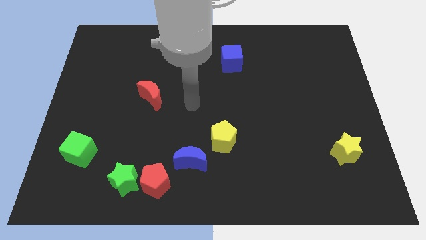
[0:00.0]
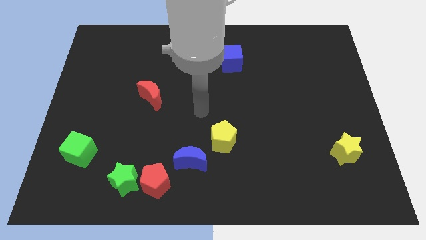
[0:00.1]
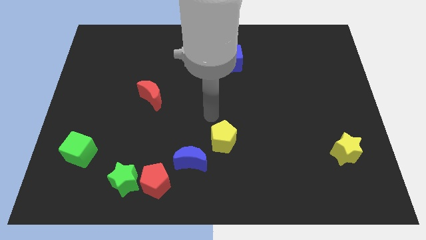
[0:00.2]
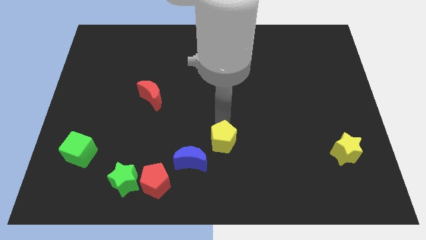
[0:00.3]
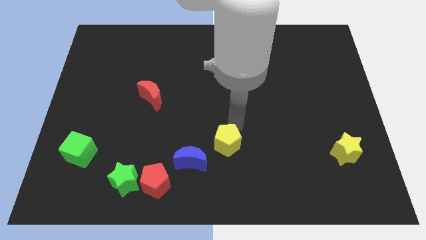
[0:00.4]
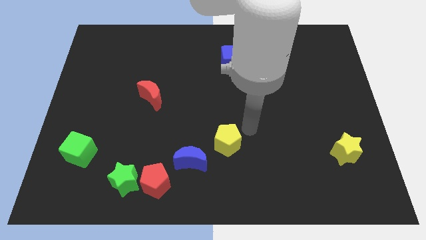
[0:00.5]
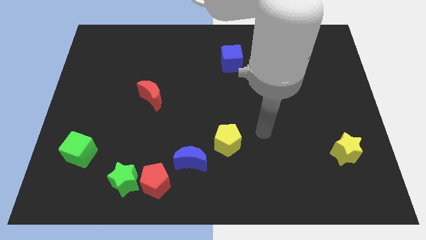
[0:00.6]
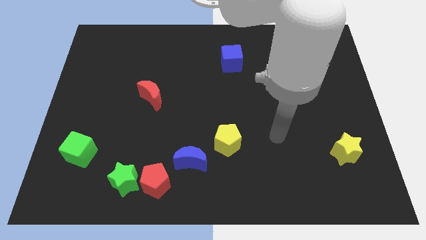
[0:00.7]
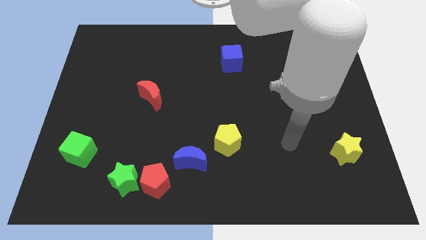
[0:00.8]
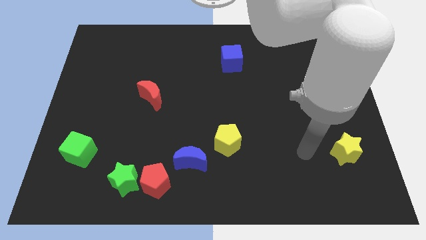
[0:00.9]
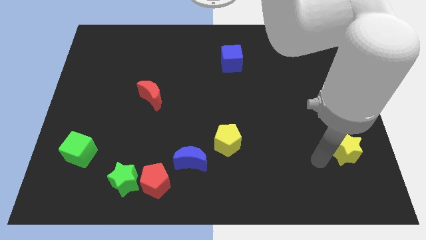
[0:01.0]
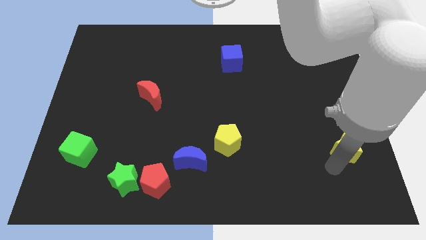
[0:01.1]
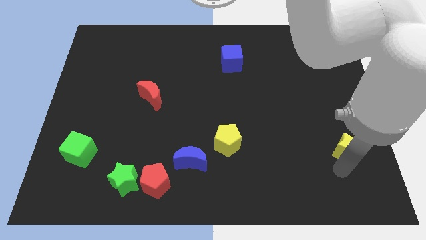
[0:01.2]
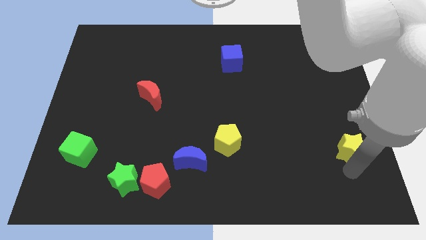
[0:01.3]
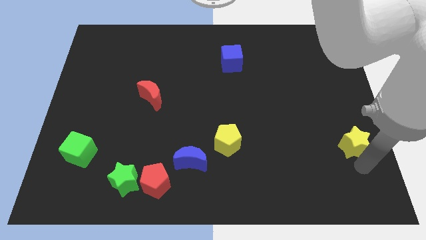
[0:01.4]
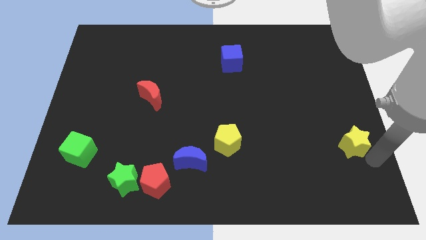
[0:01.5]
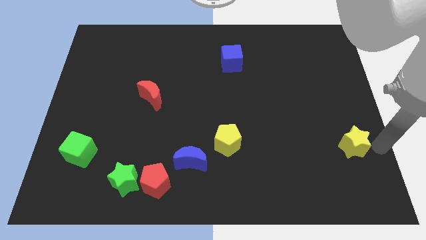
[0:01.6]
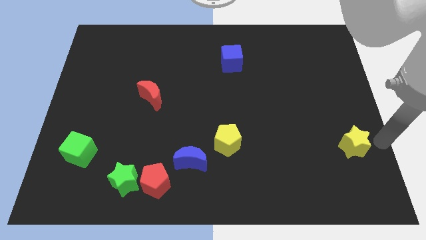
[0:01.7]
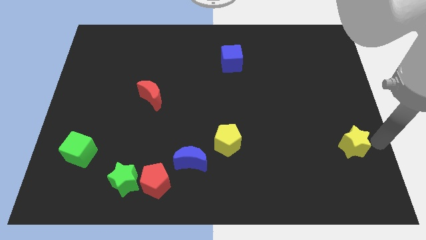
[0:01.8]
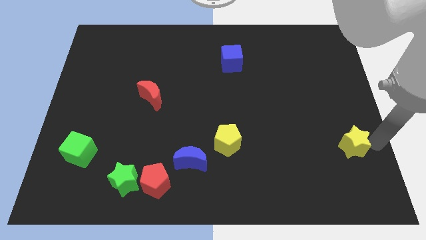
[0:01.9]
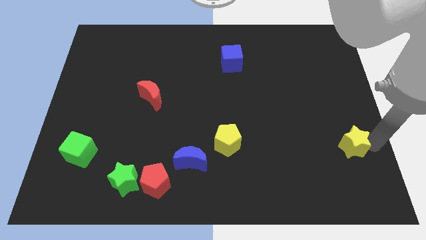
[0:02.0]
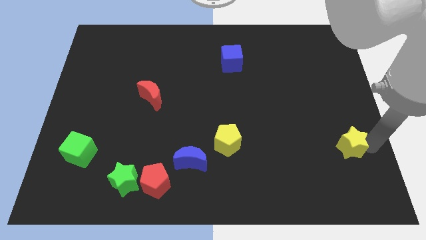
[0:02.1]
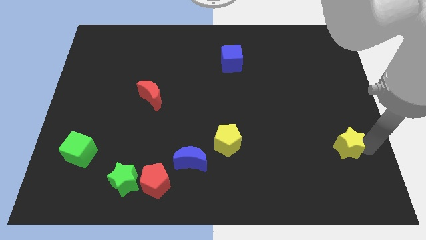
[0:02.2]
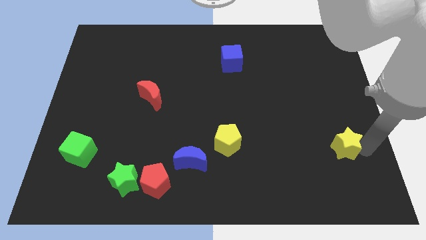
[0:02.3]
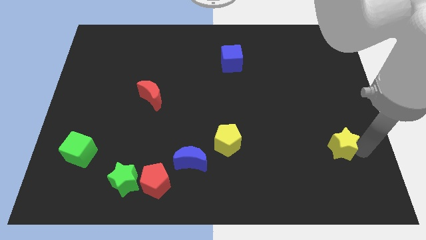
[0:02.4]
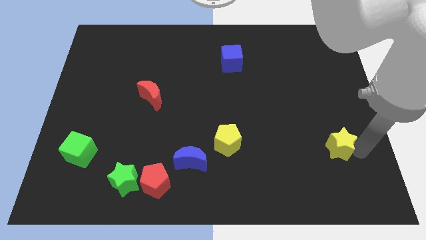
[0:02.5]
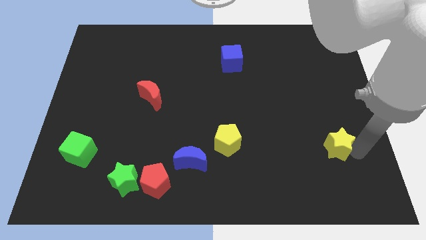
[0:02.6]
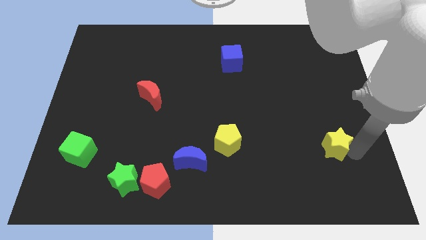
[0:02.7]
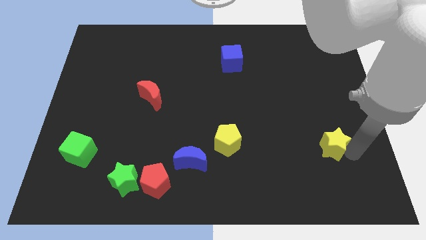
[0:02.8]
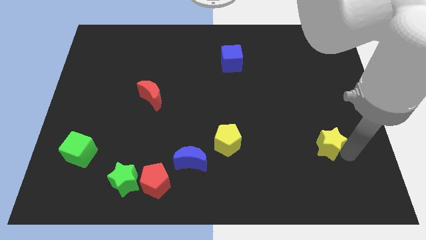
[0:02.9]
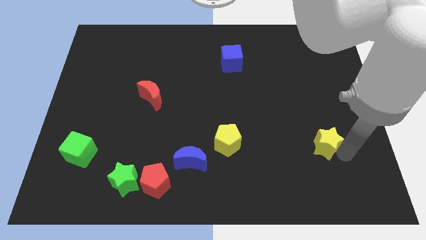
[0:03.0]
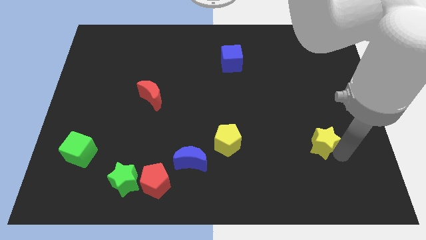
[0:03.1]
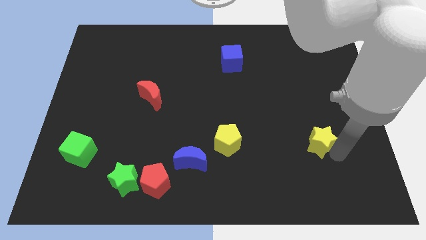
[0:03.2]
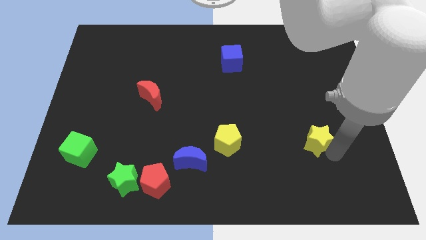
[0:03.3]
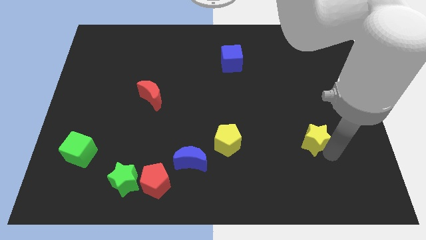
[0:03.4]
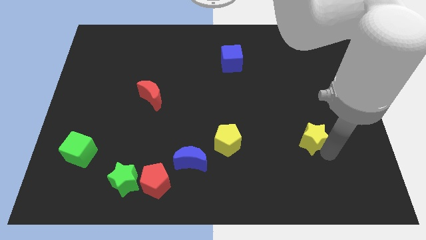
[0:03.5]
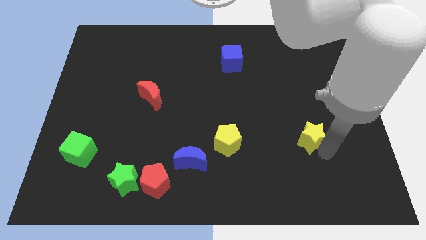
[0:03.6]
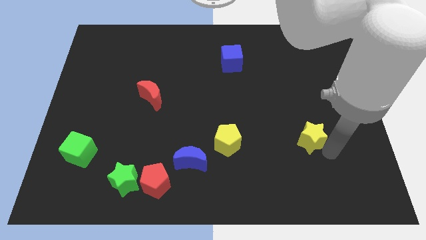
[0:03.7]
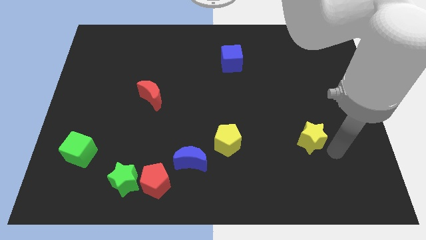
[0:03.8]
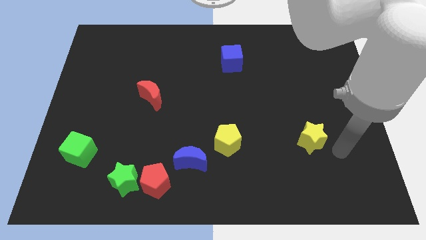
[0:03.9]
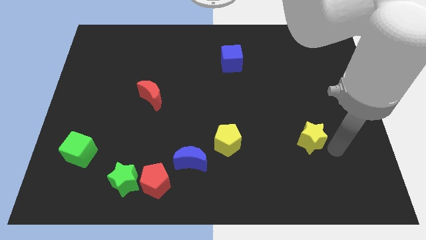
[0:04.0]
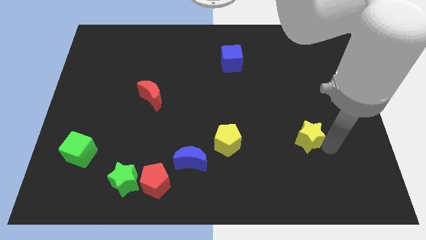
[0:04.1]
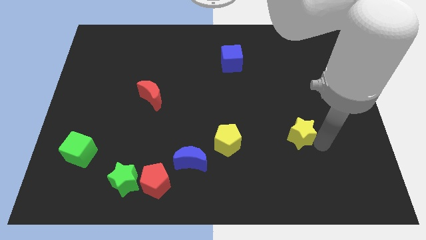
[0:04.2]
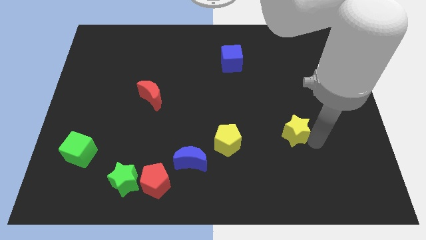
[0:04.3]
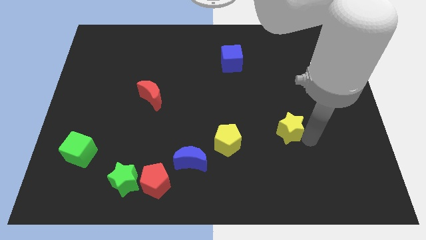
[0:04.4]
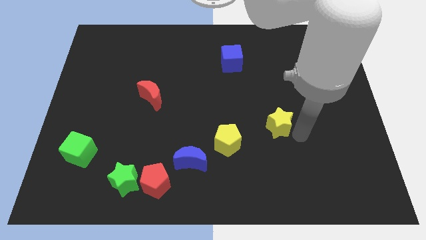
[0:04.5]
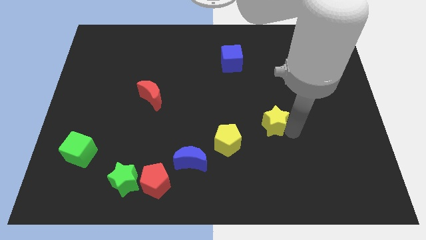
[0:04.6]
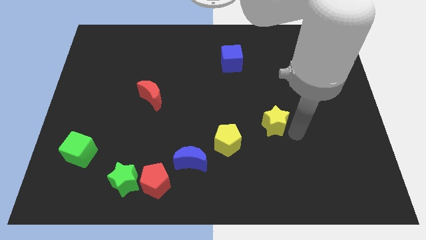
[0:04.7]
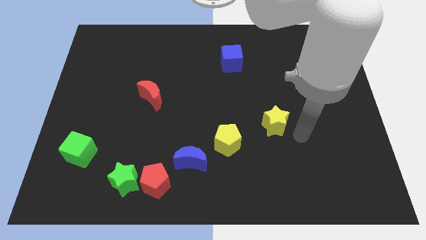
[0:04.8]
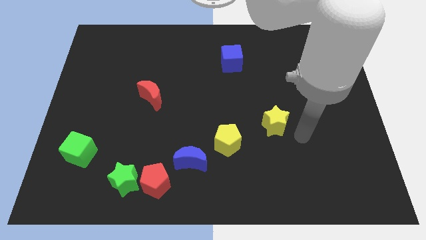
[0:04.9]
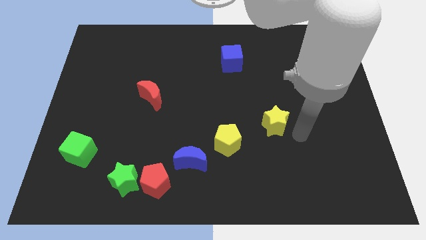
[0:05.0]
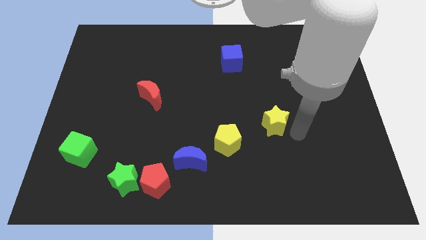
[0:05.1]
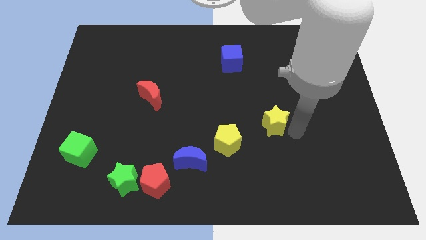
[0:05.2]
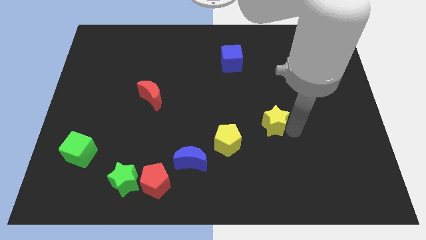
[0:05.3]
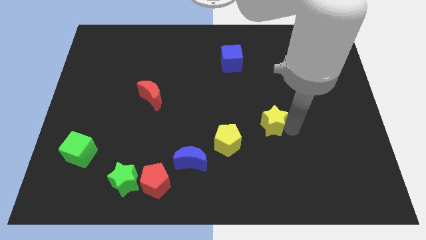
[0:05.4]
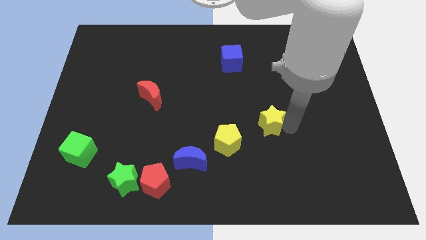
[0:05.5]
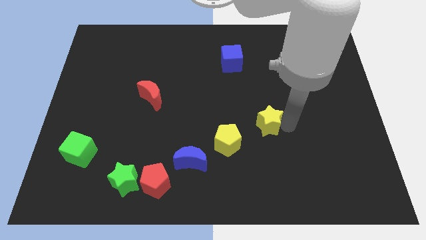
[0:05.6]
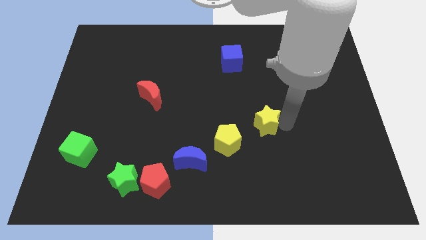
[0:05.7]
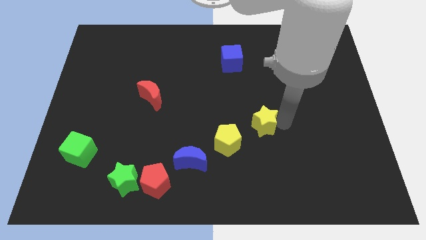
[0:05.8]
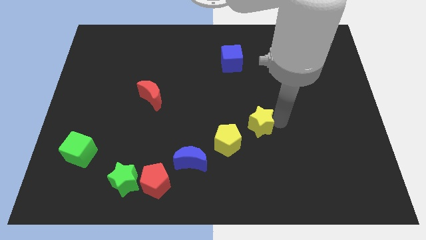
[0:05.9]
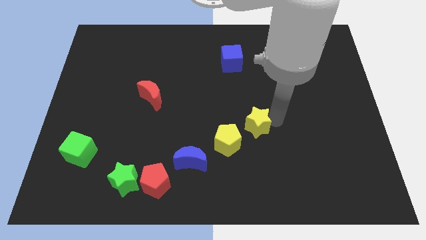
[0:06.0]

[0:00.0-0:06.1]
slide the yellow star to the middle of the board

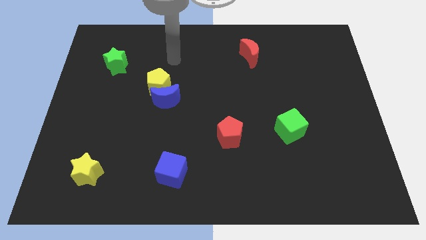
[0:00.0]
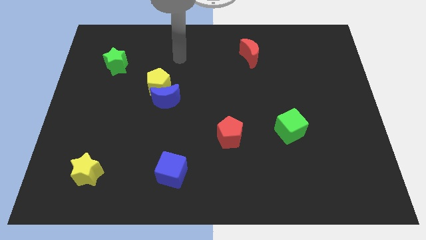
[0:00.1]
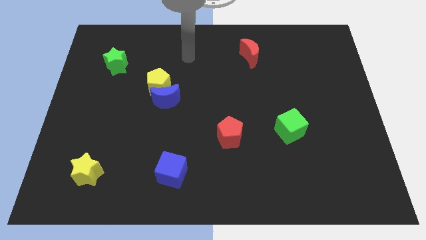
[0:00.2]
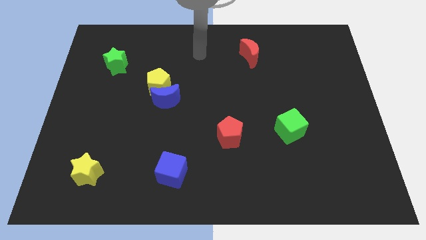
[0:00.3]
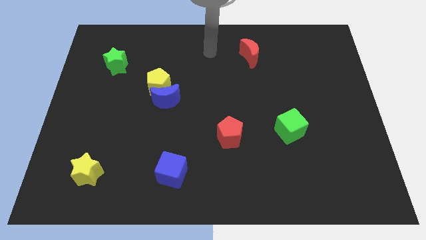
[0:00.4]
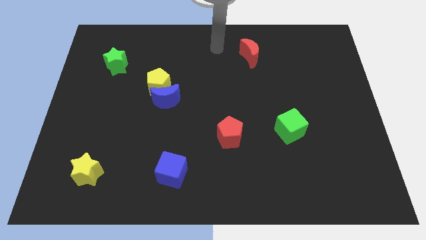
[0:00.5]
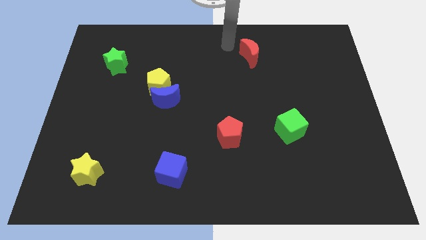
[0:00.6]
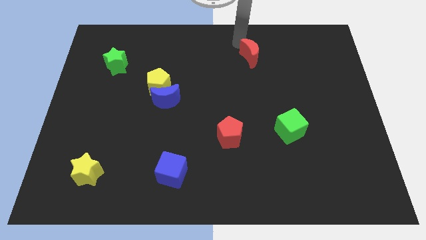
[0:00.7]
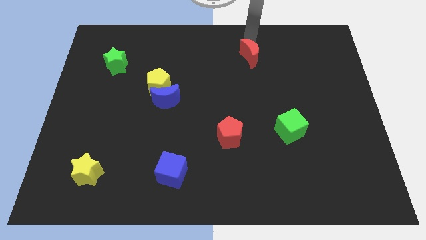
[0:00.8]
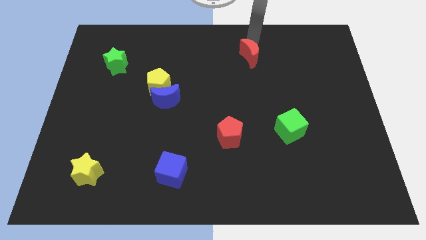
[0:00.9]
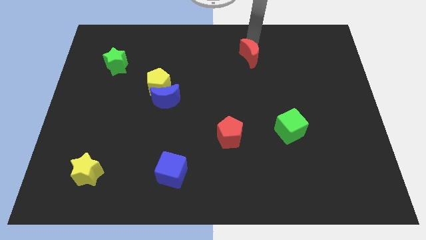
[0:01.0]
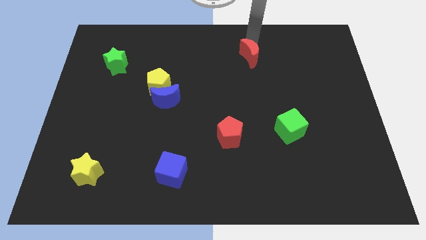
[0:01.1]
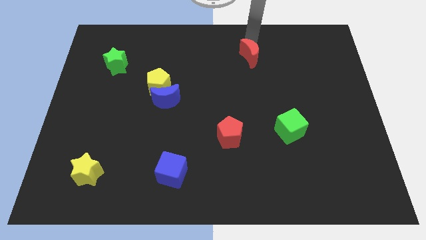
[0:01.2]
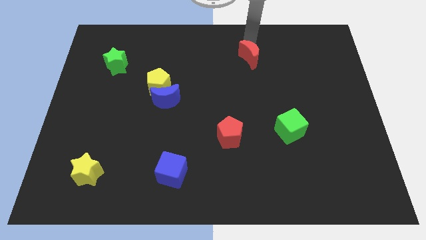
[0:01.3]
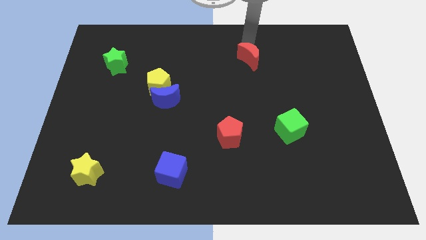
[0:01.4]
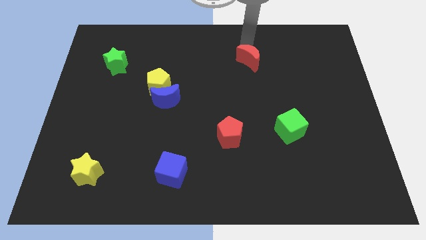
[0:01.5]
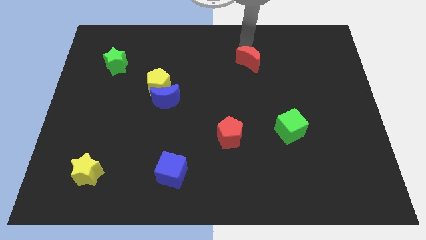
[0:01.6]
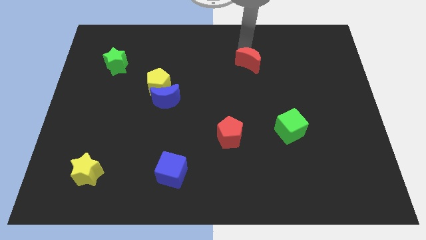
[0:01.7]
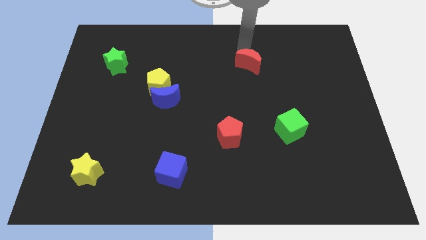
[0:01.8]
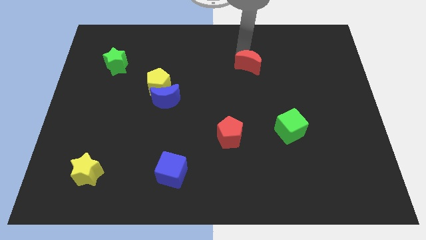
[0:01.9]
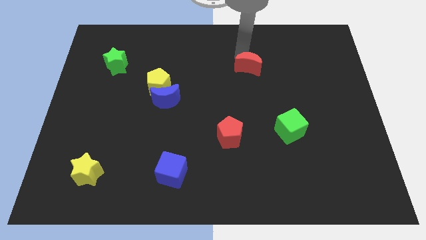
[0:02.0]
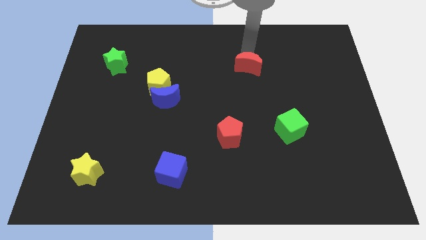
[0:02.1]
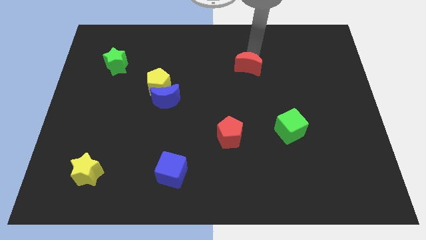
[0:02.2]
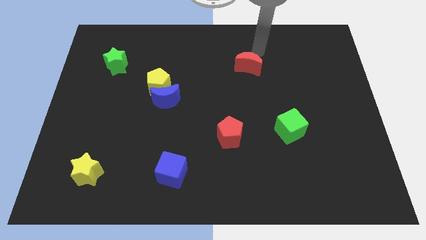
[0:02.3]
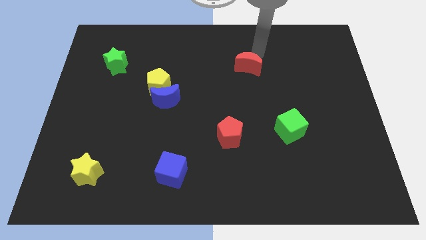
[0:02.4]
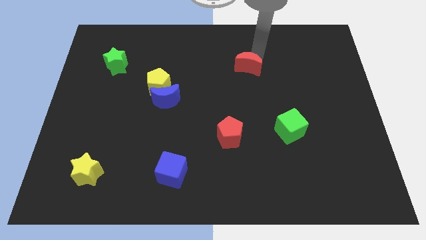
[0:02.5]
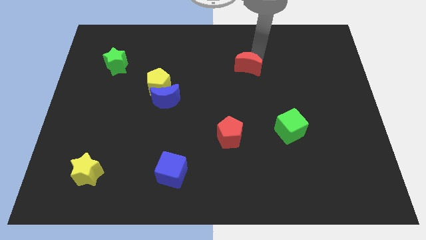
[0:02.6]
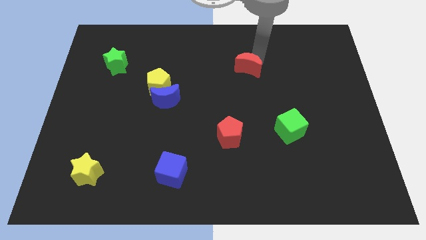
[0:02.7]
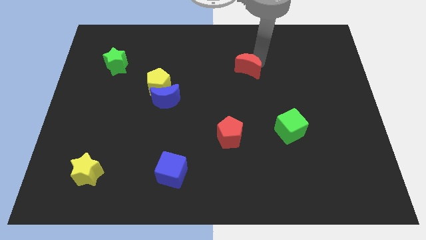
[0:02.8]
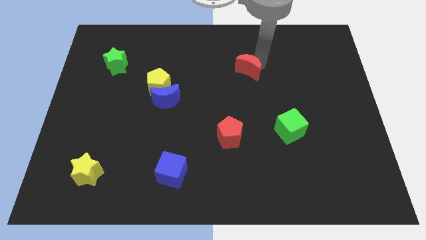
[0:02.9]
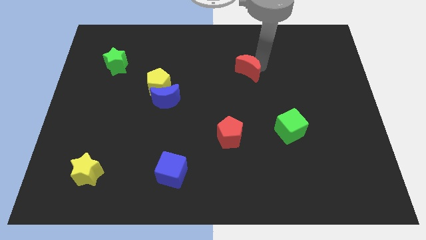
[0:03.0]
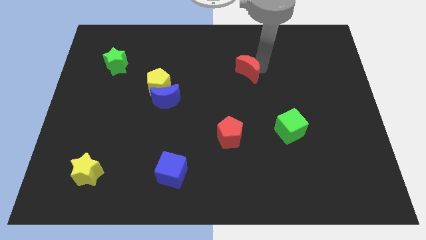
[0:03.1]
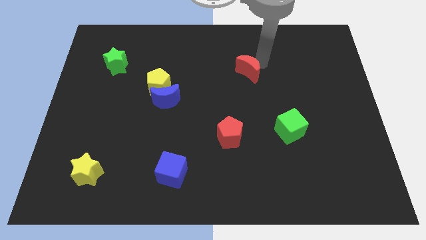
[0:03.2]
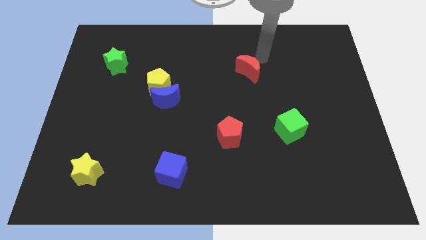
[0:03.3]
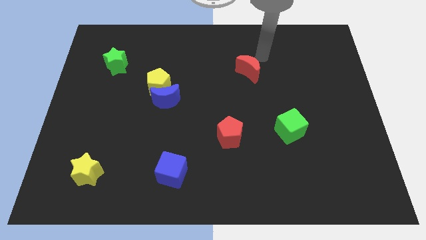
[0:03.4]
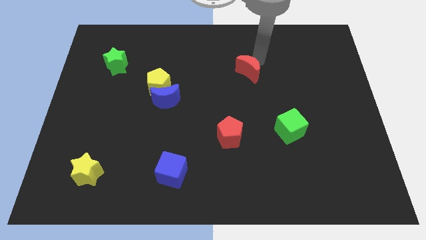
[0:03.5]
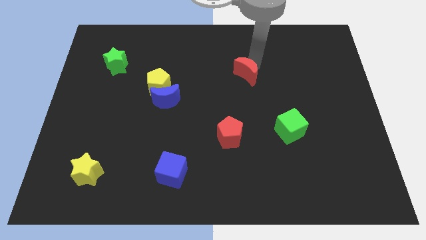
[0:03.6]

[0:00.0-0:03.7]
move the red moon to the middle
